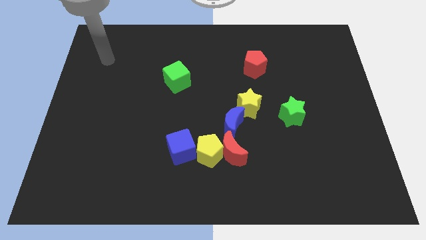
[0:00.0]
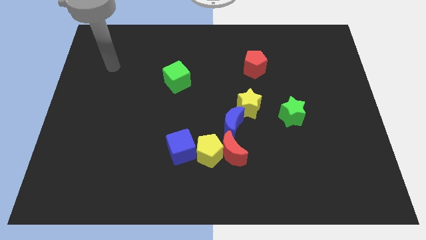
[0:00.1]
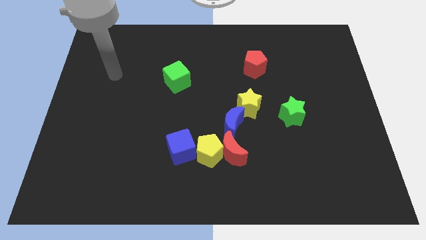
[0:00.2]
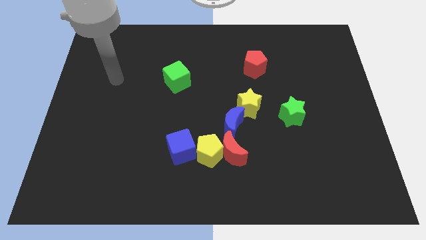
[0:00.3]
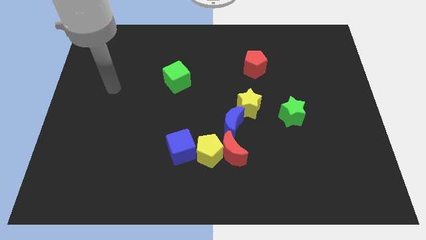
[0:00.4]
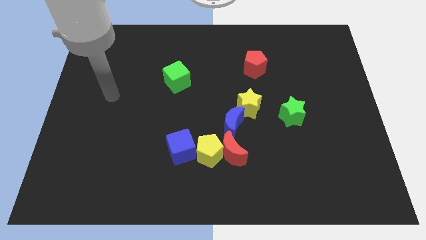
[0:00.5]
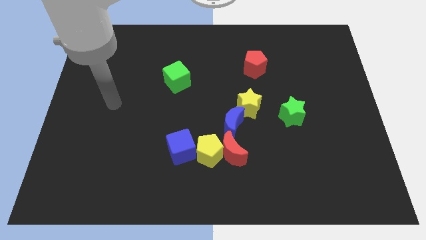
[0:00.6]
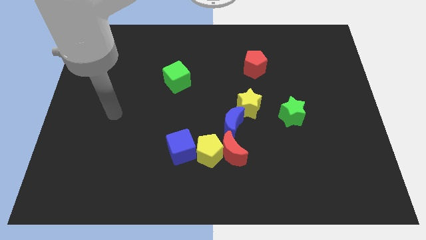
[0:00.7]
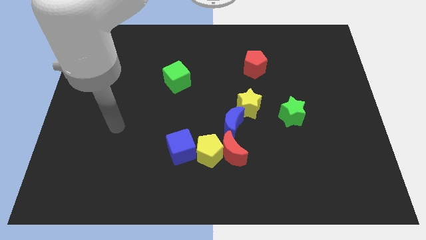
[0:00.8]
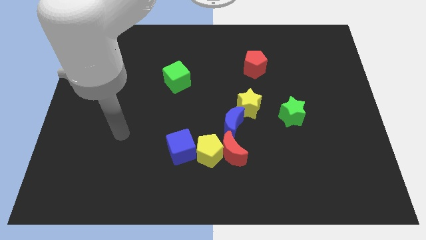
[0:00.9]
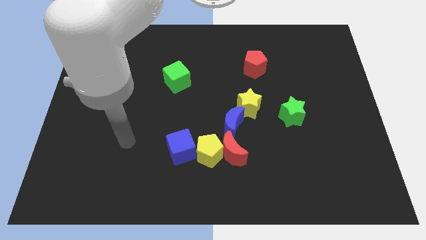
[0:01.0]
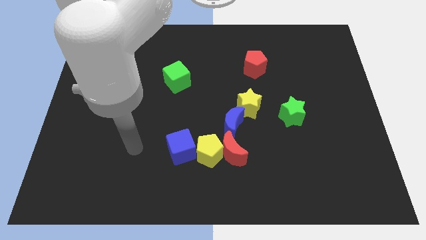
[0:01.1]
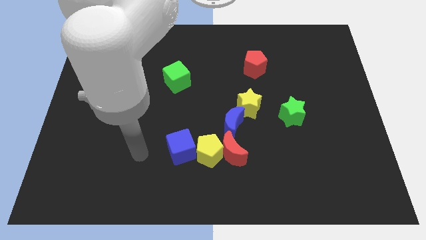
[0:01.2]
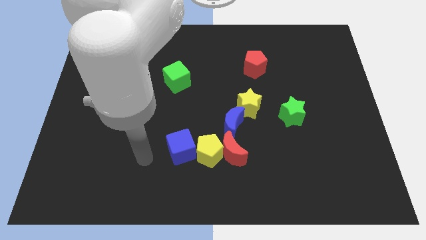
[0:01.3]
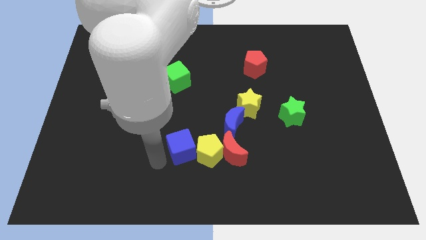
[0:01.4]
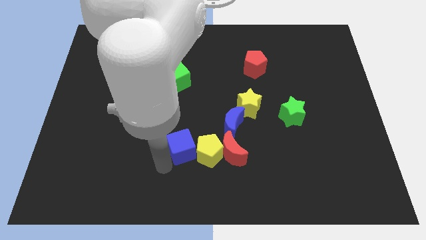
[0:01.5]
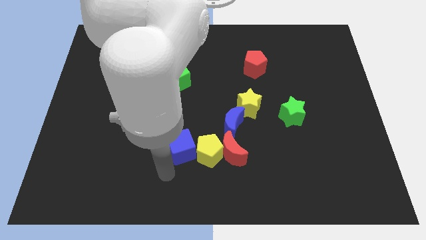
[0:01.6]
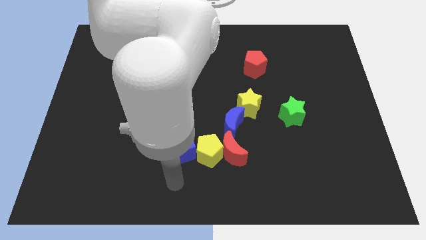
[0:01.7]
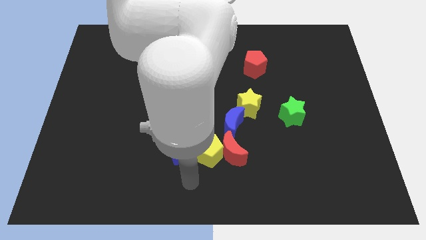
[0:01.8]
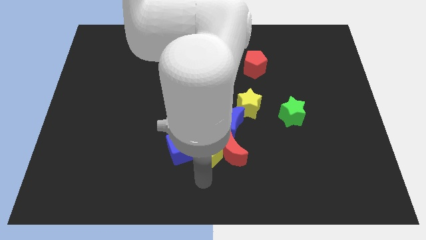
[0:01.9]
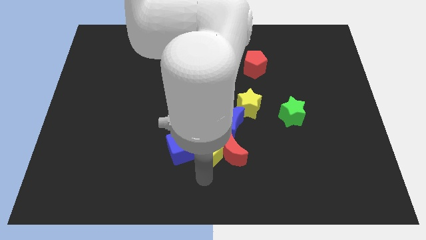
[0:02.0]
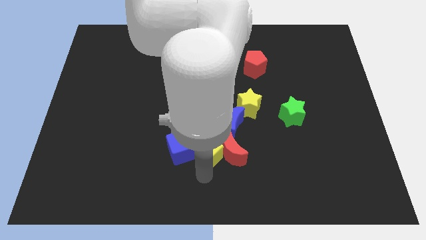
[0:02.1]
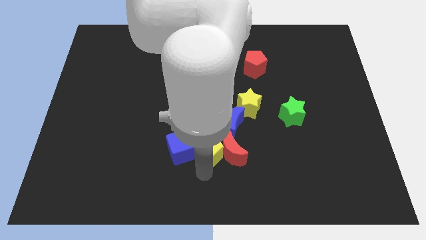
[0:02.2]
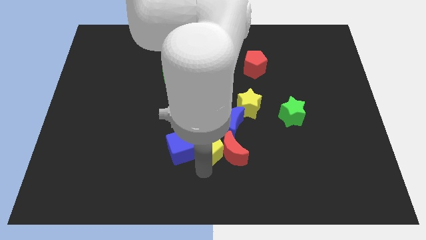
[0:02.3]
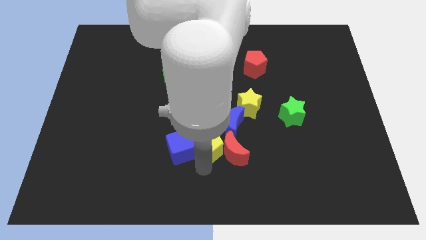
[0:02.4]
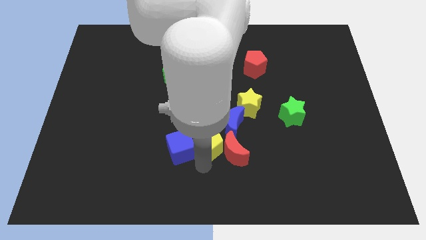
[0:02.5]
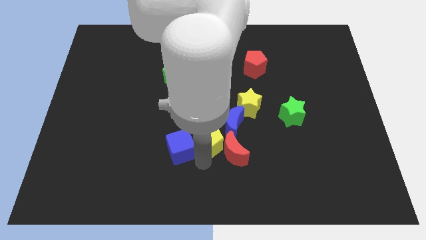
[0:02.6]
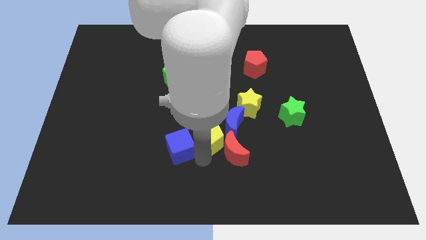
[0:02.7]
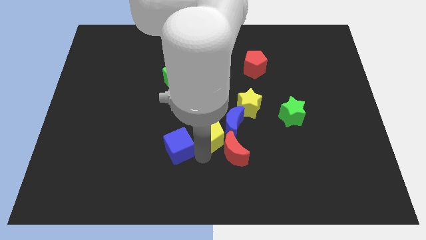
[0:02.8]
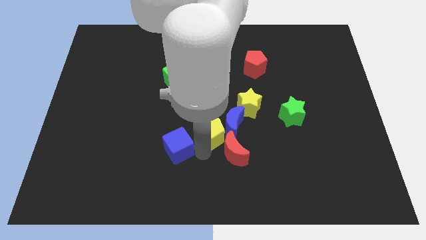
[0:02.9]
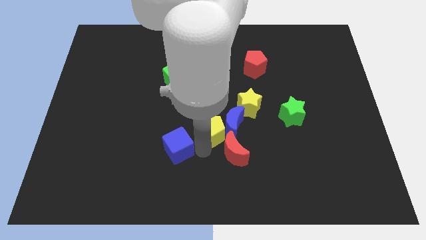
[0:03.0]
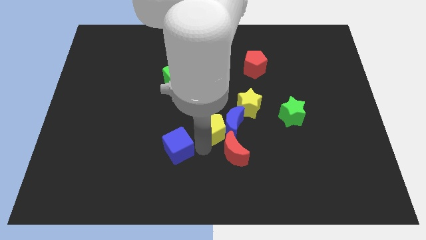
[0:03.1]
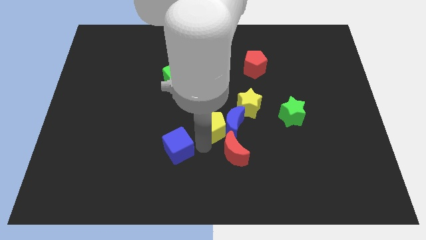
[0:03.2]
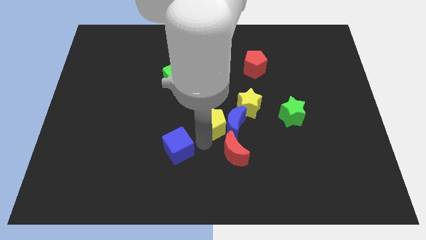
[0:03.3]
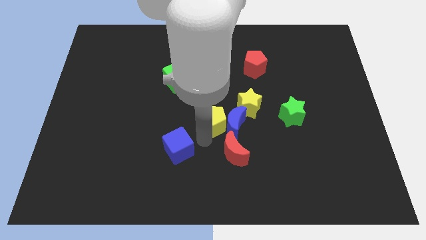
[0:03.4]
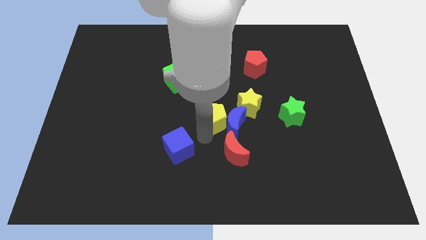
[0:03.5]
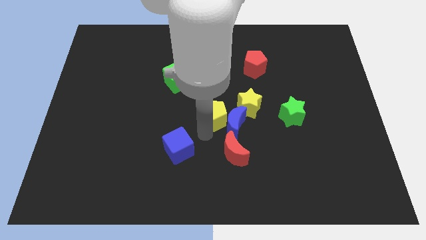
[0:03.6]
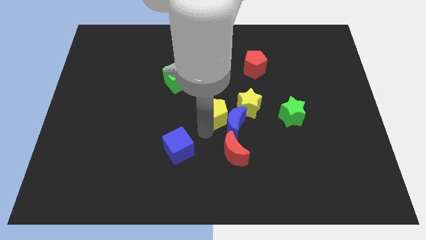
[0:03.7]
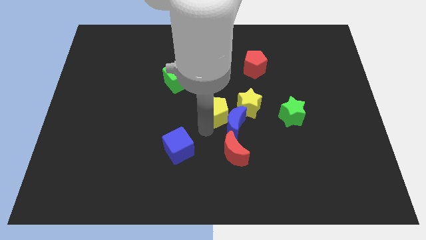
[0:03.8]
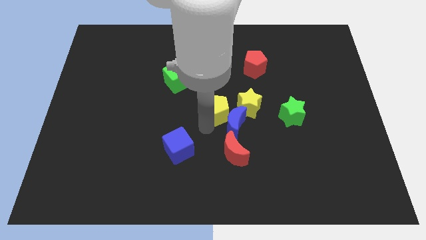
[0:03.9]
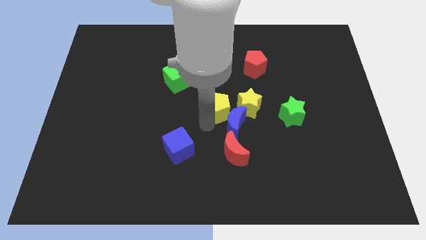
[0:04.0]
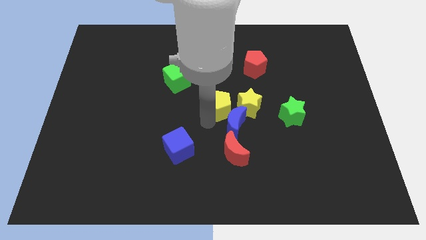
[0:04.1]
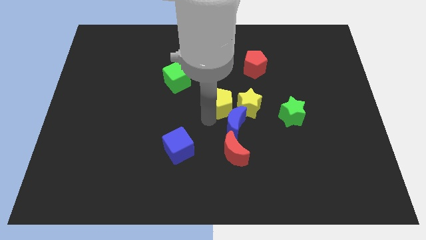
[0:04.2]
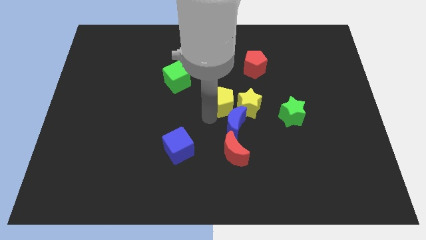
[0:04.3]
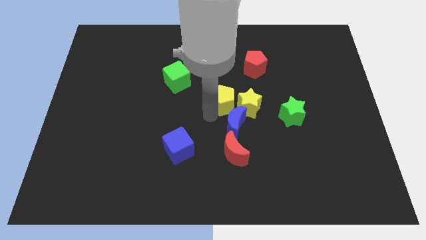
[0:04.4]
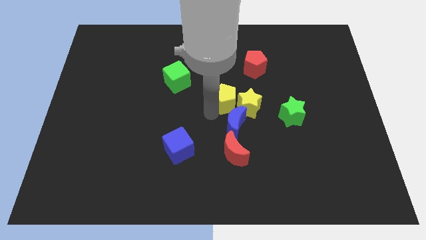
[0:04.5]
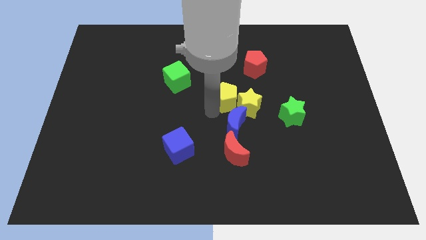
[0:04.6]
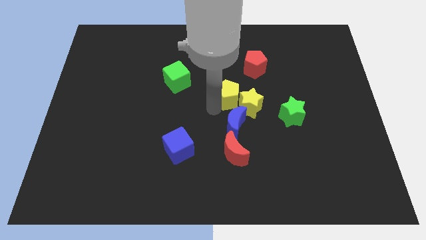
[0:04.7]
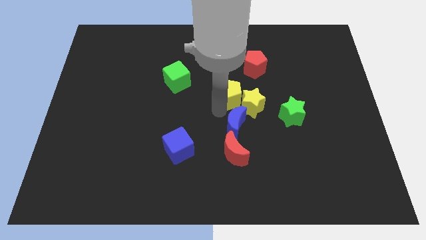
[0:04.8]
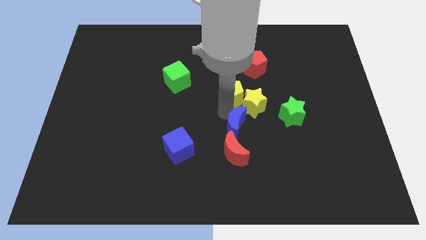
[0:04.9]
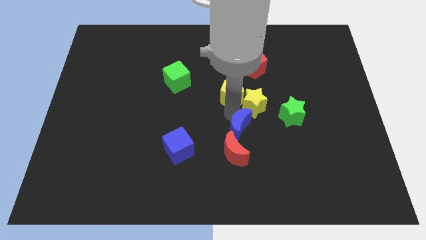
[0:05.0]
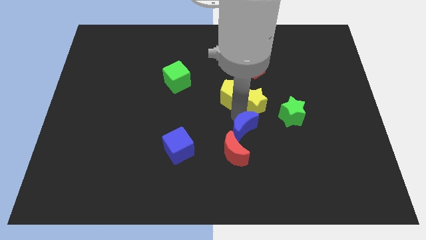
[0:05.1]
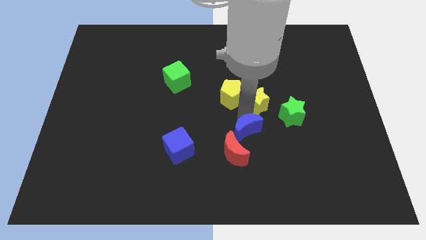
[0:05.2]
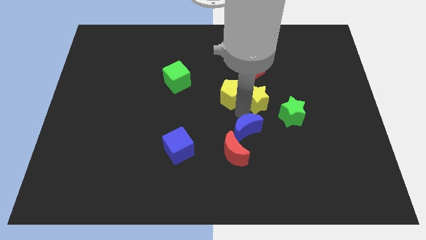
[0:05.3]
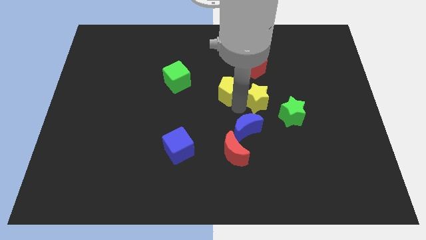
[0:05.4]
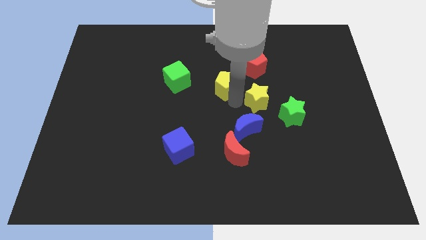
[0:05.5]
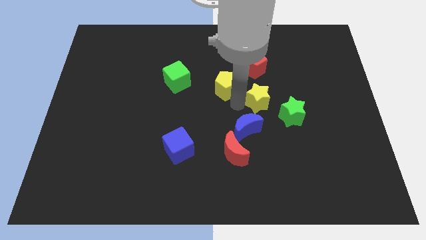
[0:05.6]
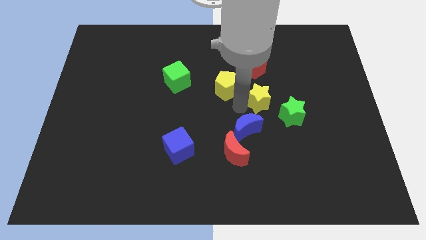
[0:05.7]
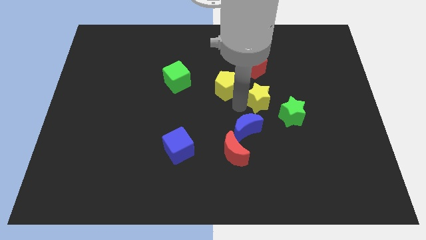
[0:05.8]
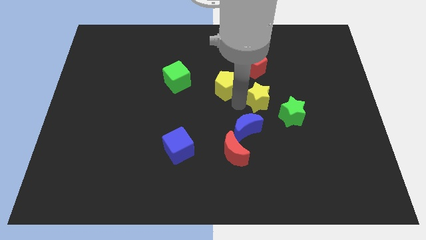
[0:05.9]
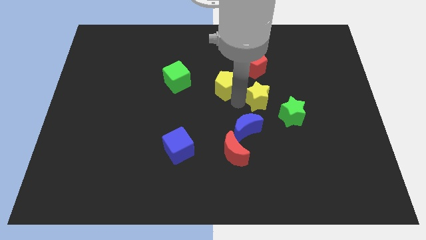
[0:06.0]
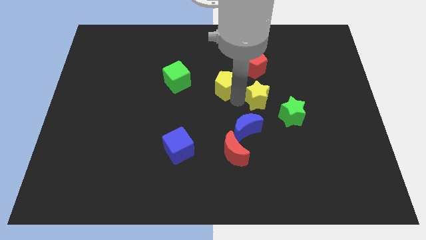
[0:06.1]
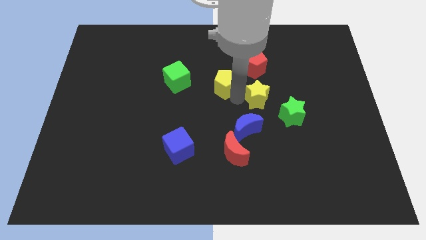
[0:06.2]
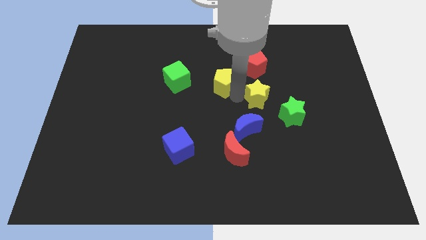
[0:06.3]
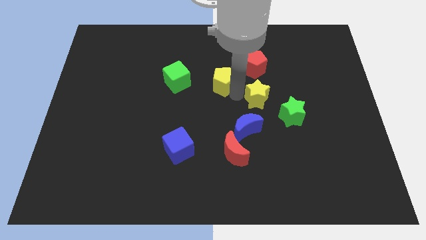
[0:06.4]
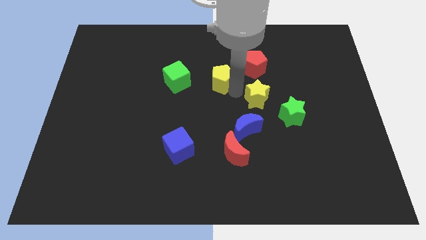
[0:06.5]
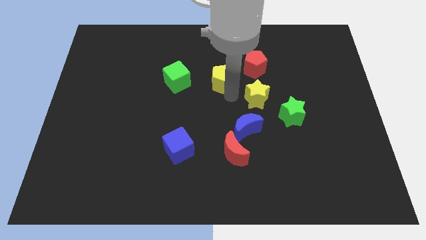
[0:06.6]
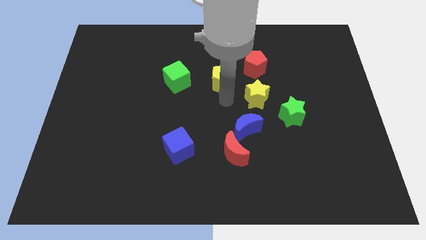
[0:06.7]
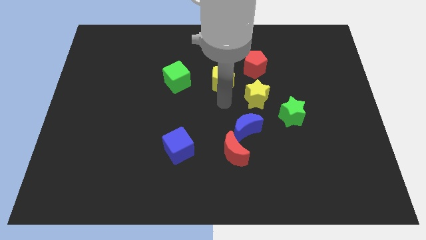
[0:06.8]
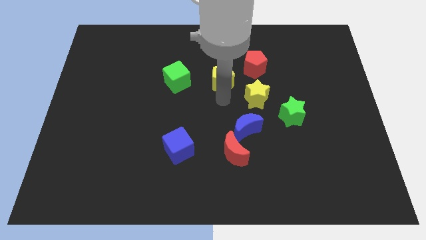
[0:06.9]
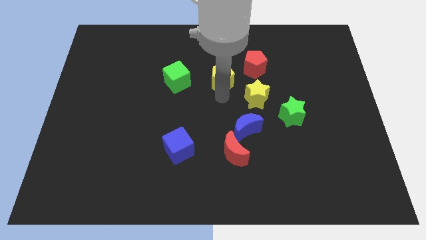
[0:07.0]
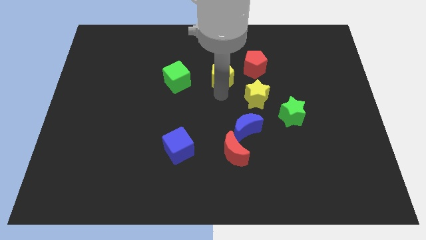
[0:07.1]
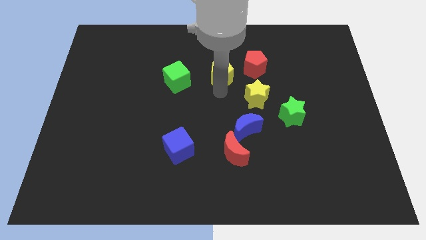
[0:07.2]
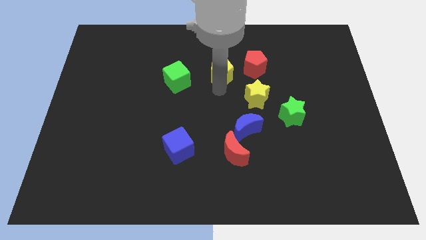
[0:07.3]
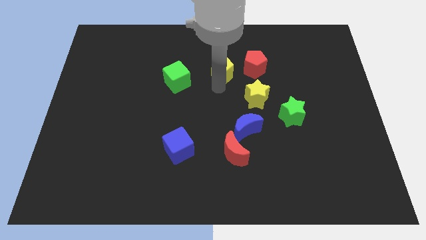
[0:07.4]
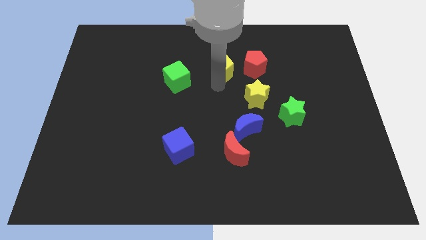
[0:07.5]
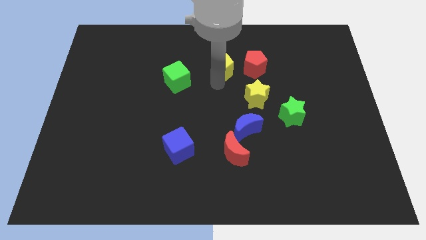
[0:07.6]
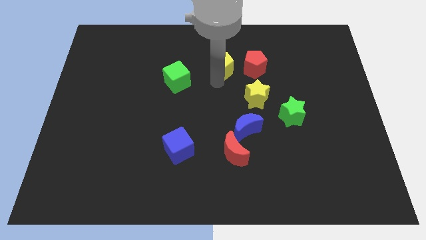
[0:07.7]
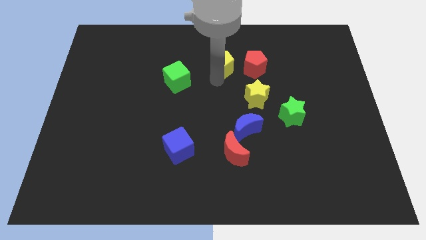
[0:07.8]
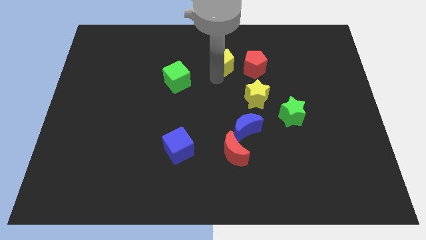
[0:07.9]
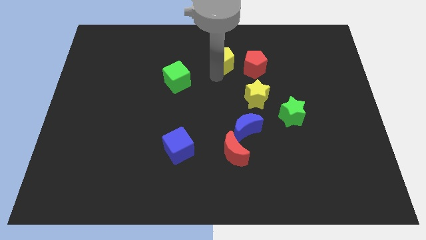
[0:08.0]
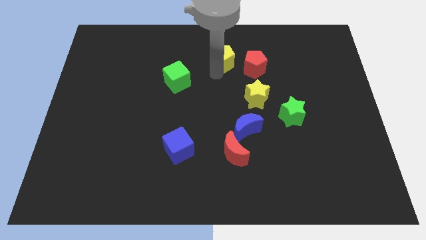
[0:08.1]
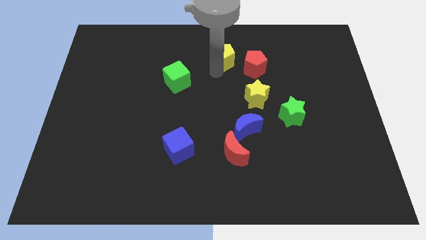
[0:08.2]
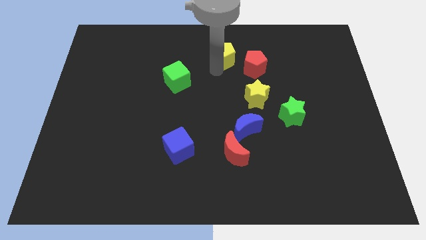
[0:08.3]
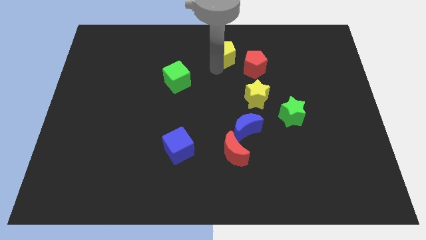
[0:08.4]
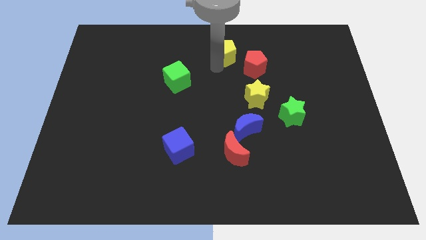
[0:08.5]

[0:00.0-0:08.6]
push the yellow pentagon to the top
